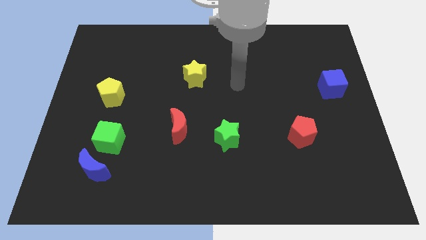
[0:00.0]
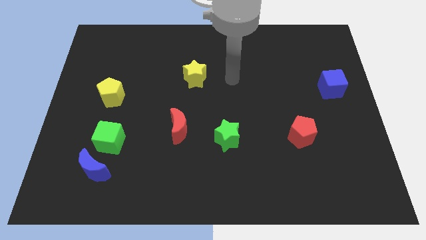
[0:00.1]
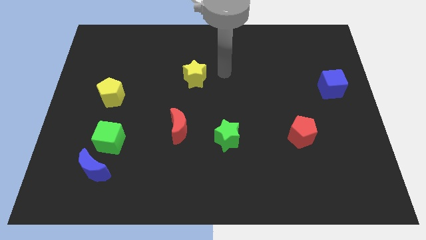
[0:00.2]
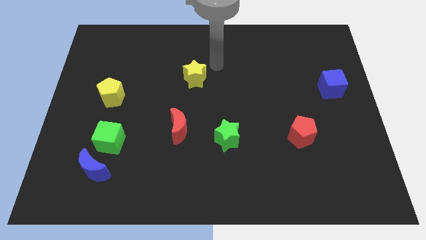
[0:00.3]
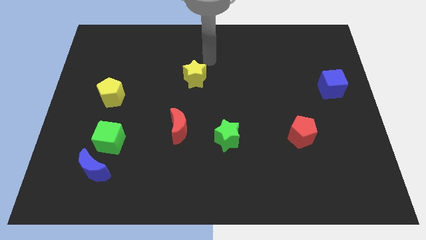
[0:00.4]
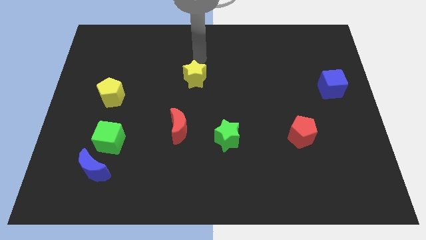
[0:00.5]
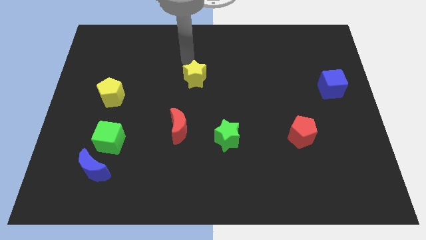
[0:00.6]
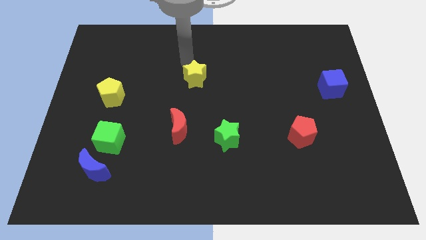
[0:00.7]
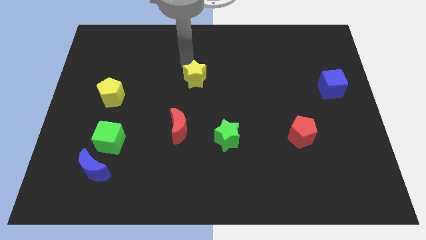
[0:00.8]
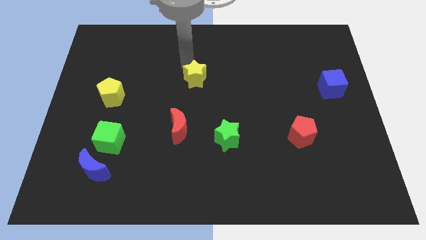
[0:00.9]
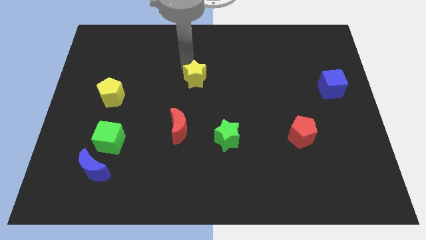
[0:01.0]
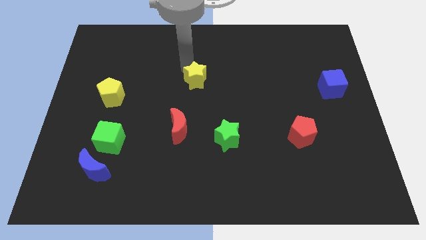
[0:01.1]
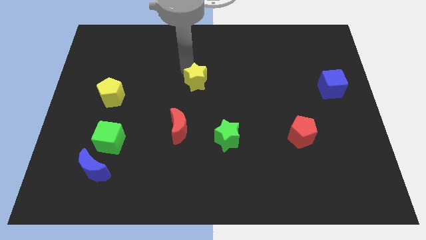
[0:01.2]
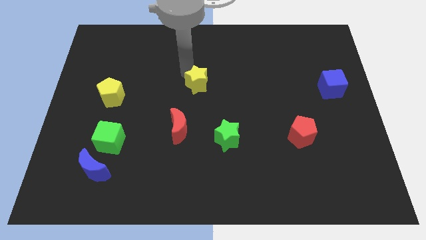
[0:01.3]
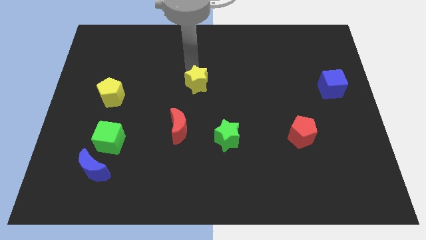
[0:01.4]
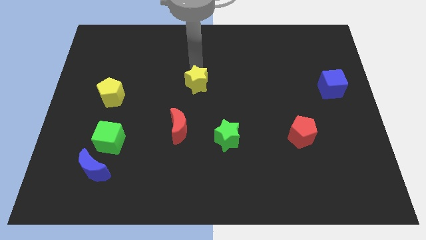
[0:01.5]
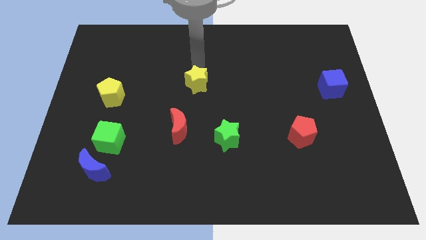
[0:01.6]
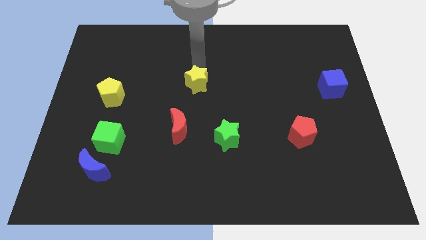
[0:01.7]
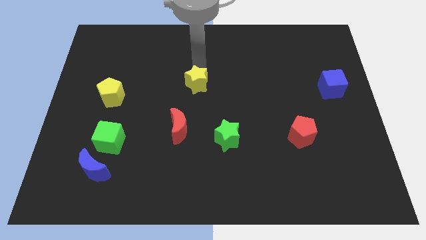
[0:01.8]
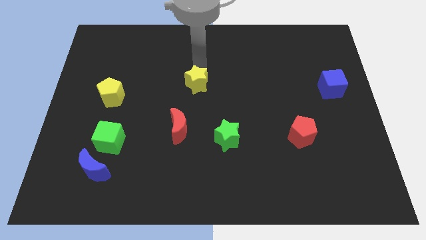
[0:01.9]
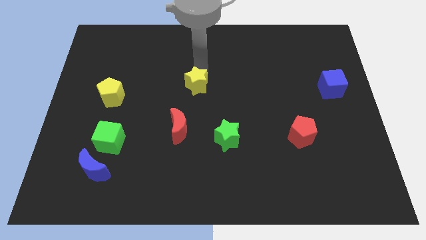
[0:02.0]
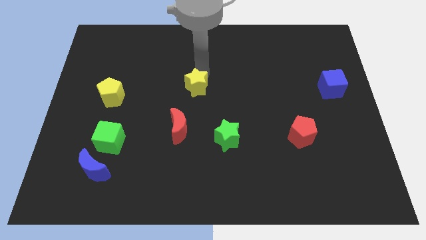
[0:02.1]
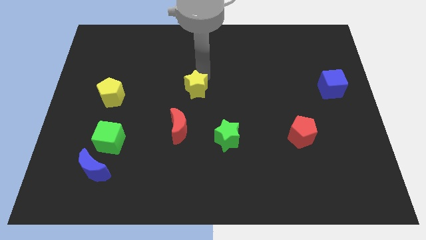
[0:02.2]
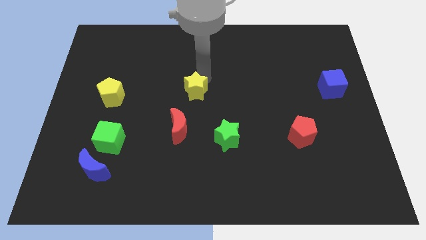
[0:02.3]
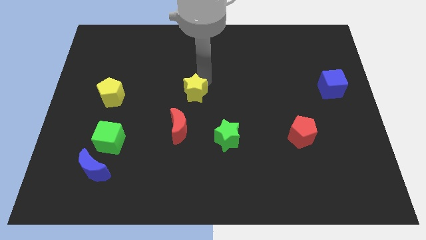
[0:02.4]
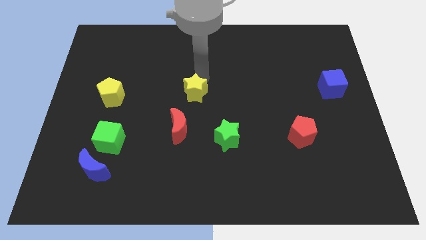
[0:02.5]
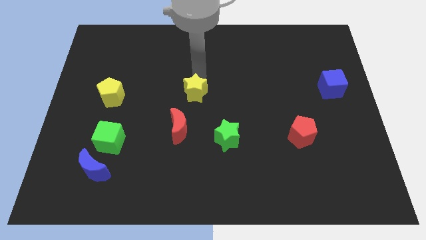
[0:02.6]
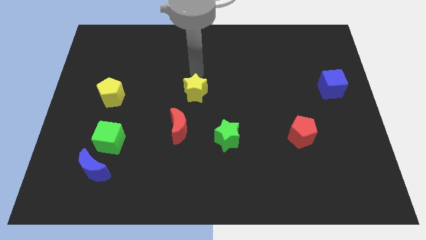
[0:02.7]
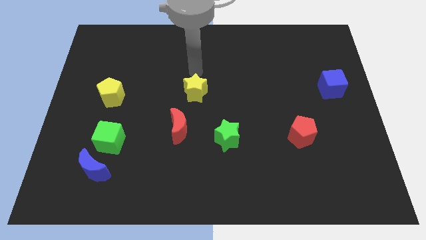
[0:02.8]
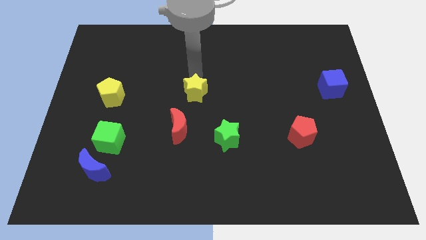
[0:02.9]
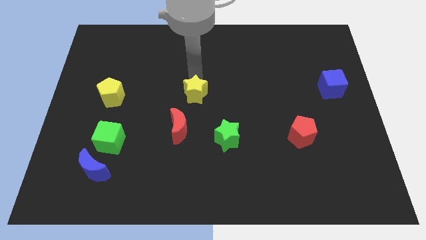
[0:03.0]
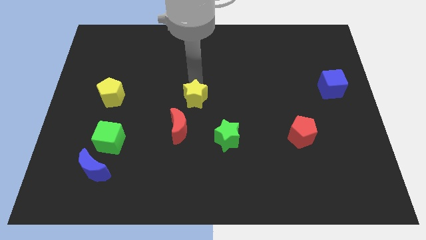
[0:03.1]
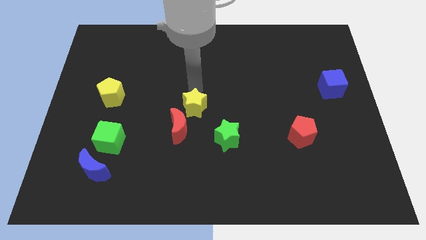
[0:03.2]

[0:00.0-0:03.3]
move the yellow star down a little bit

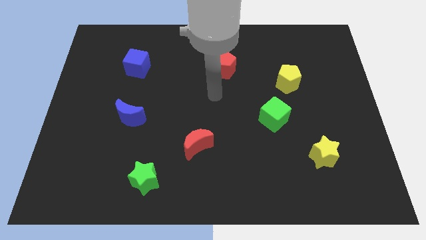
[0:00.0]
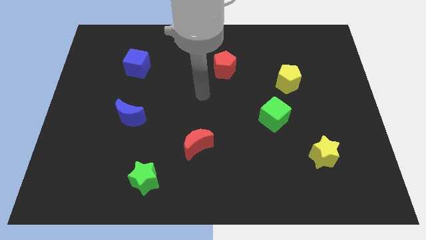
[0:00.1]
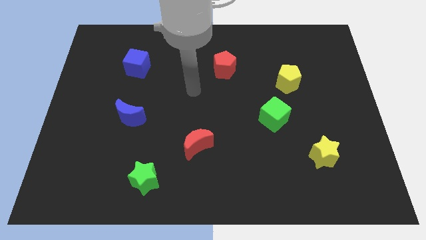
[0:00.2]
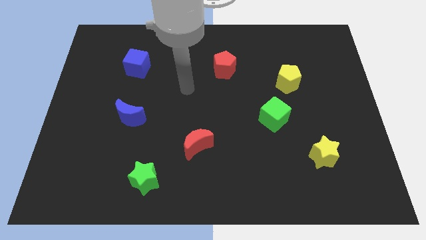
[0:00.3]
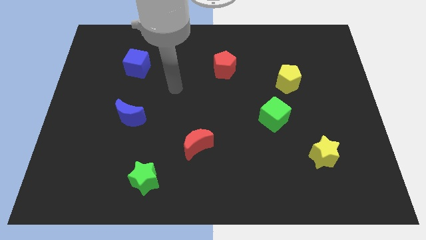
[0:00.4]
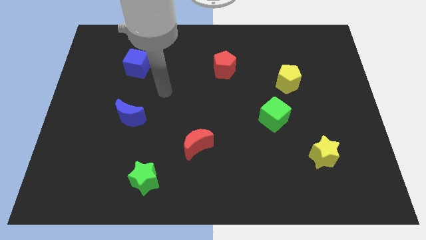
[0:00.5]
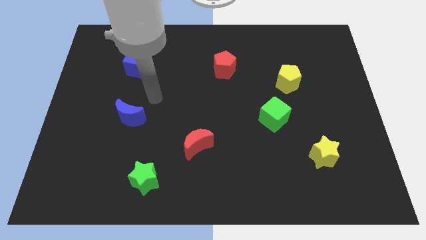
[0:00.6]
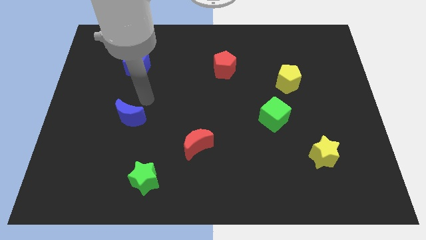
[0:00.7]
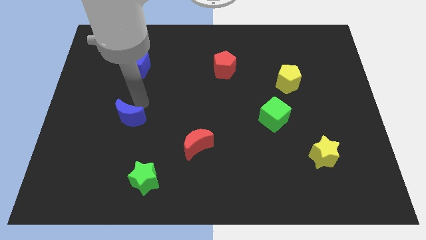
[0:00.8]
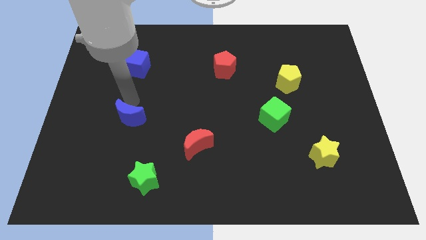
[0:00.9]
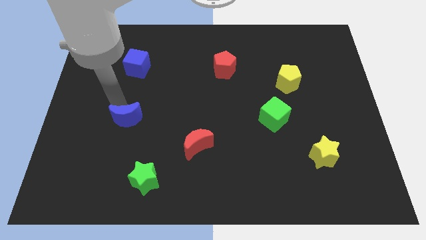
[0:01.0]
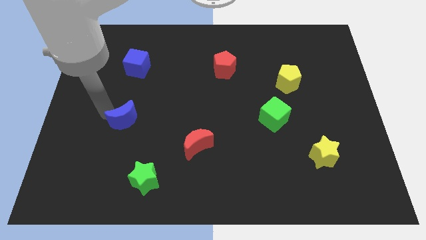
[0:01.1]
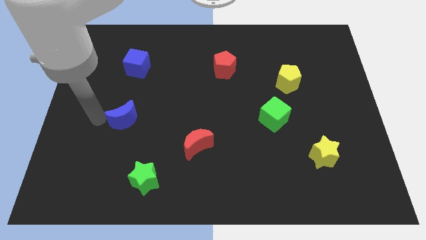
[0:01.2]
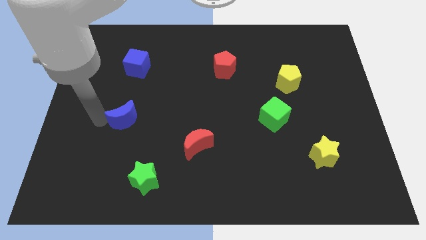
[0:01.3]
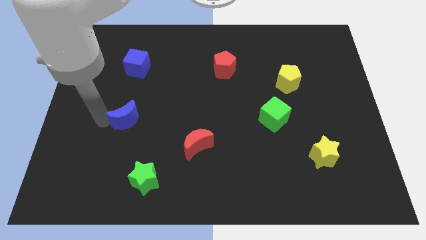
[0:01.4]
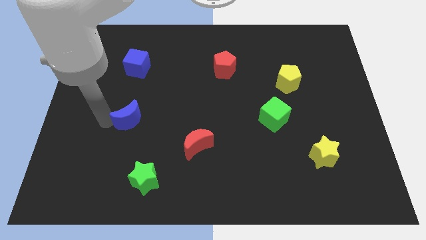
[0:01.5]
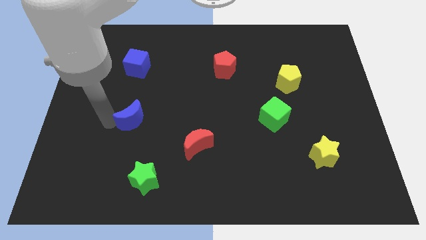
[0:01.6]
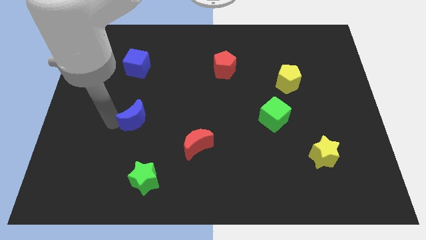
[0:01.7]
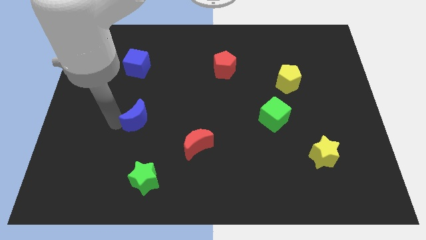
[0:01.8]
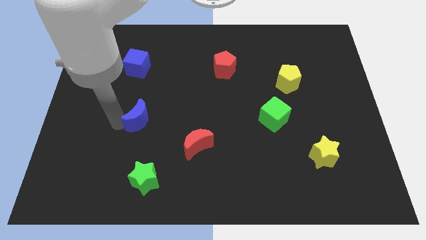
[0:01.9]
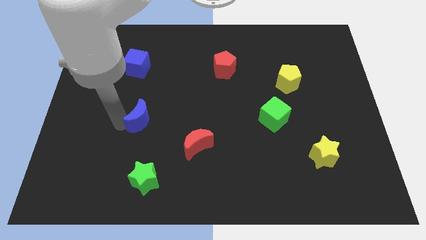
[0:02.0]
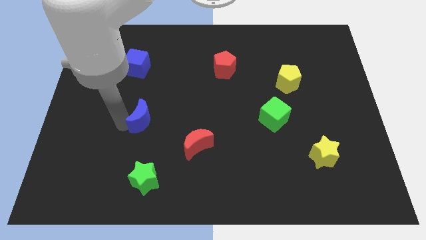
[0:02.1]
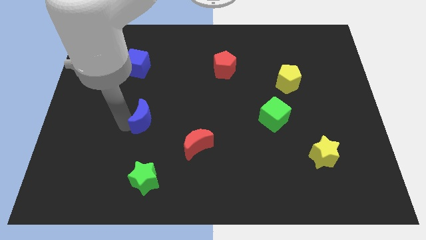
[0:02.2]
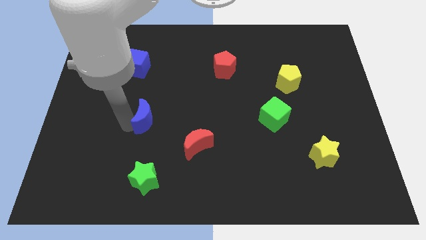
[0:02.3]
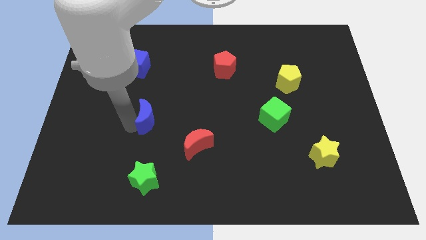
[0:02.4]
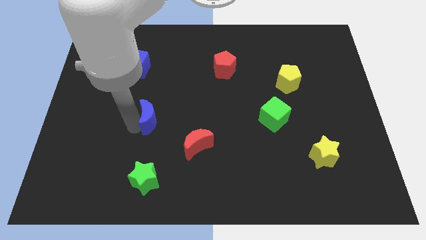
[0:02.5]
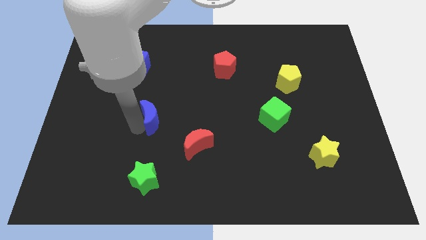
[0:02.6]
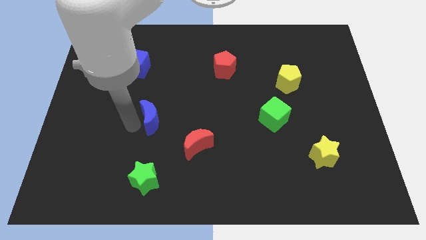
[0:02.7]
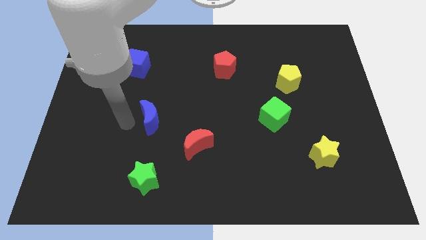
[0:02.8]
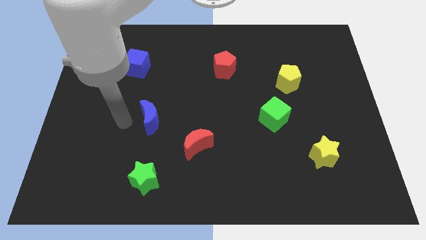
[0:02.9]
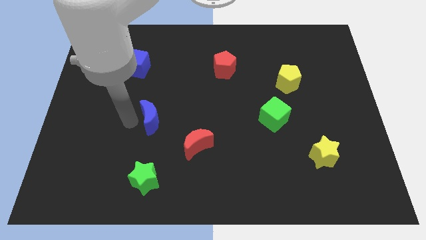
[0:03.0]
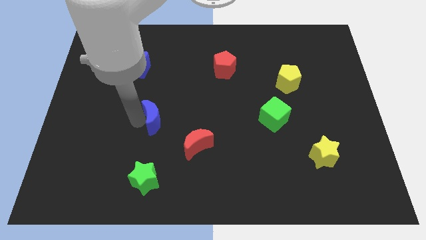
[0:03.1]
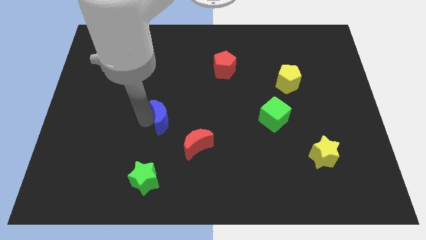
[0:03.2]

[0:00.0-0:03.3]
slide the blue moon to the right a little

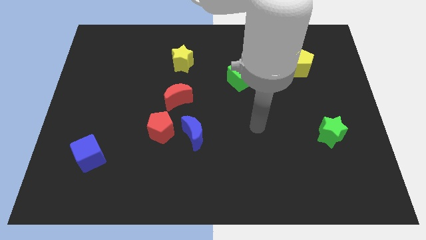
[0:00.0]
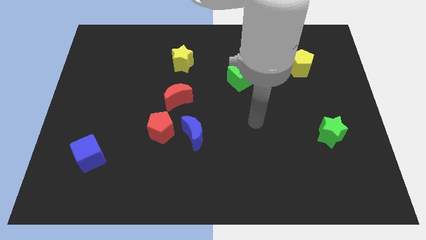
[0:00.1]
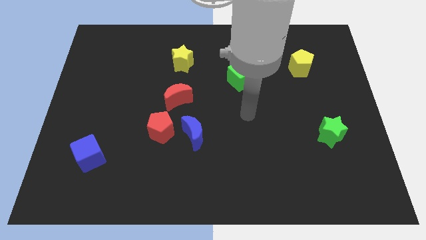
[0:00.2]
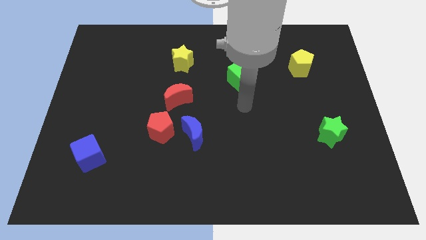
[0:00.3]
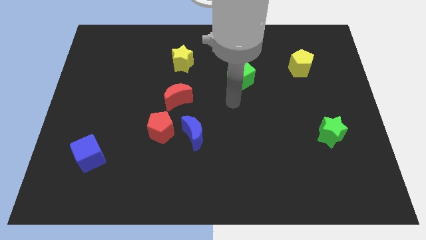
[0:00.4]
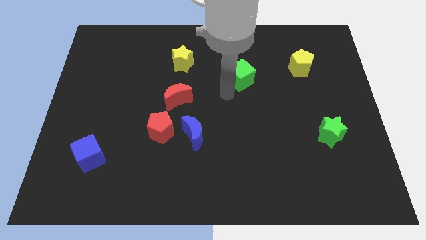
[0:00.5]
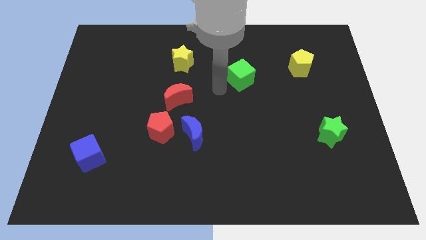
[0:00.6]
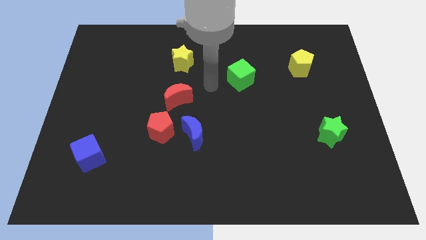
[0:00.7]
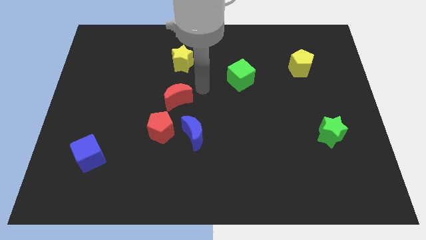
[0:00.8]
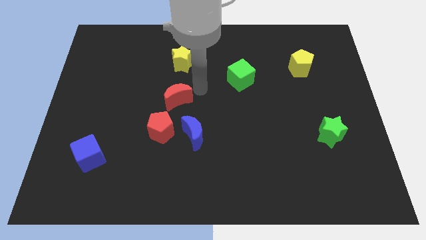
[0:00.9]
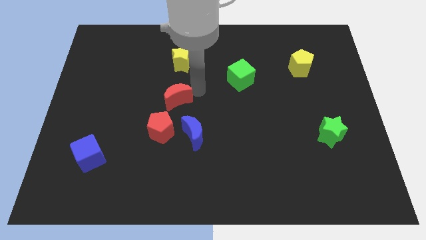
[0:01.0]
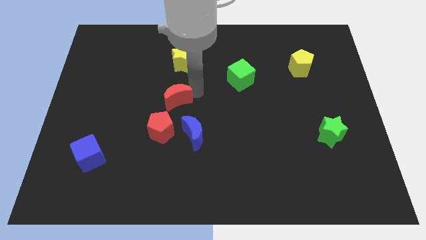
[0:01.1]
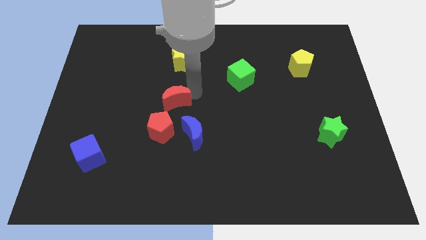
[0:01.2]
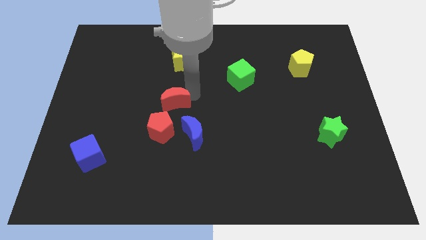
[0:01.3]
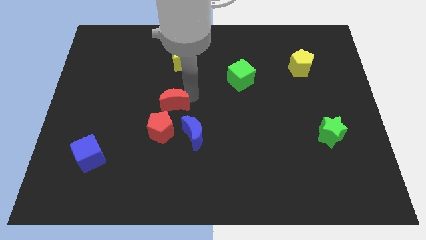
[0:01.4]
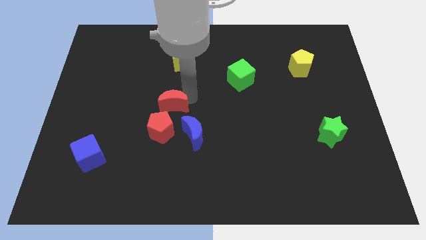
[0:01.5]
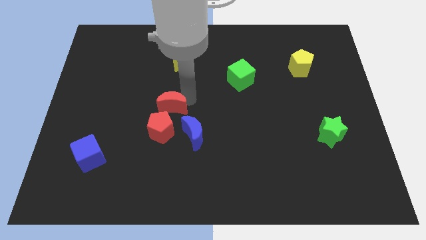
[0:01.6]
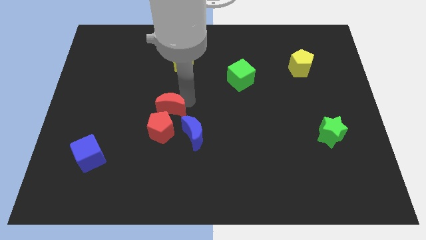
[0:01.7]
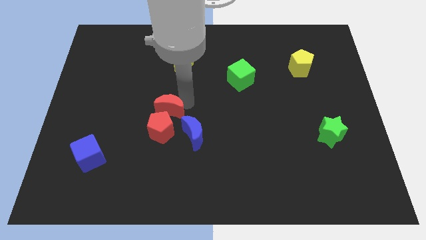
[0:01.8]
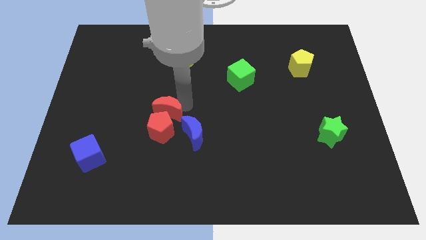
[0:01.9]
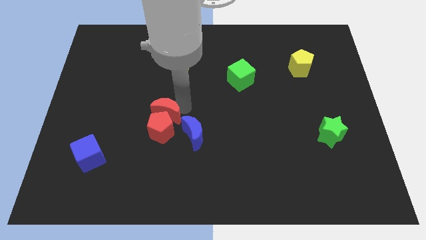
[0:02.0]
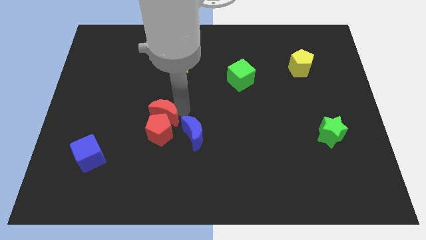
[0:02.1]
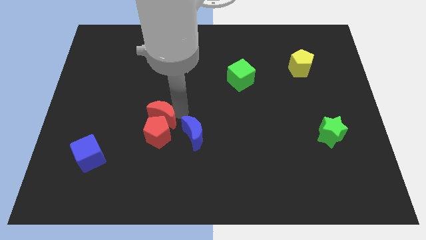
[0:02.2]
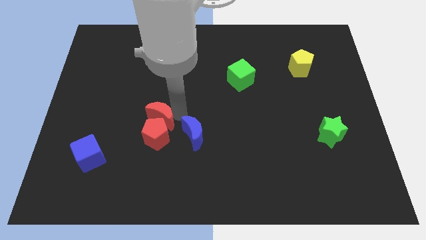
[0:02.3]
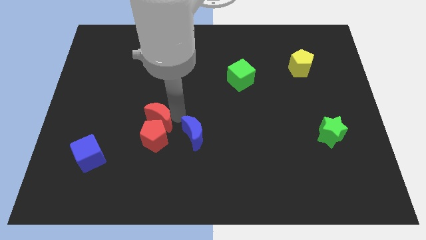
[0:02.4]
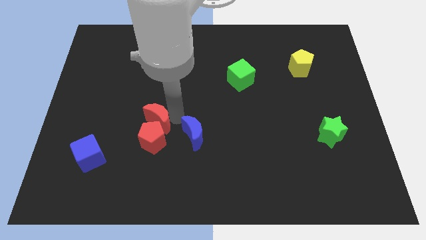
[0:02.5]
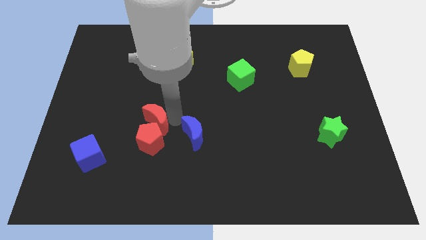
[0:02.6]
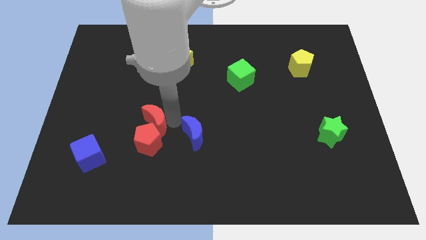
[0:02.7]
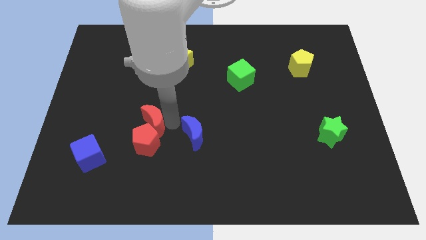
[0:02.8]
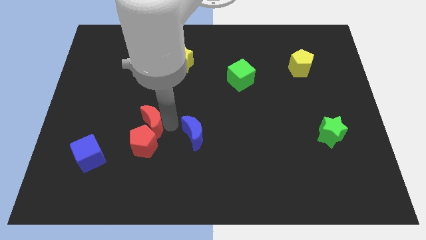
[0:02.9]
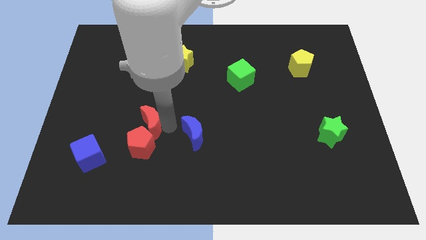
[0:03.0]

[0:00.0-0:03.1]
slide the red moon a little downwards
